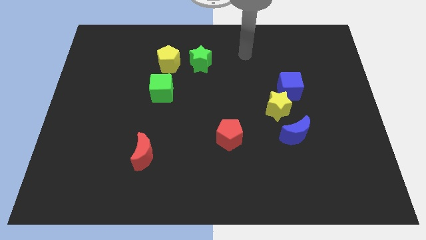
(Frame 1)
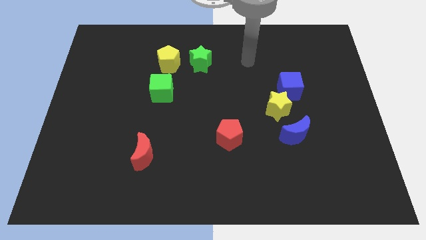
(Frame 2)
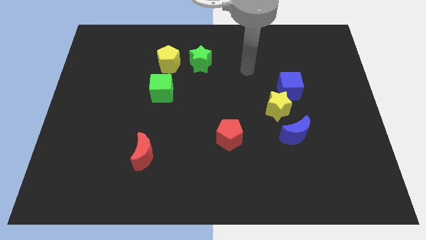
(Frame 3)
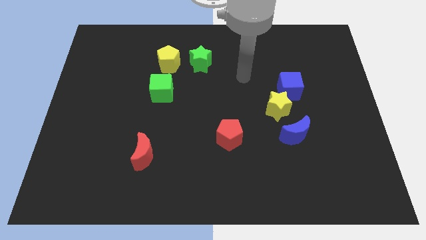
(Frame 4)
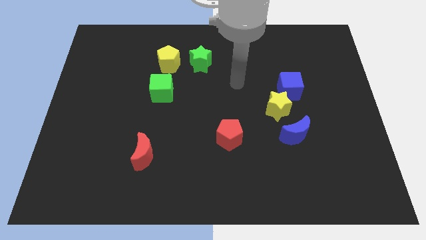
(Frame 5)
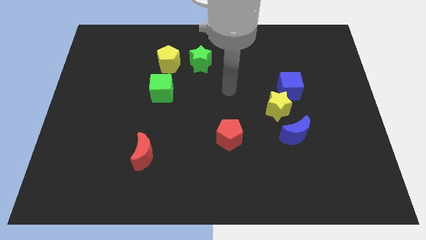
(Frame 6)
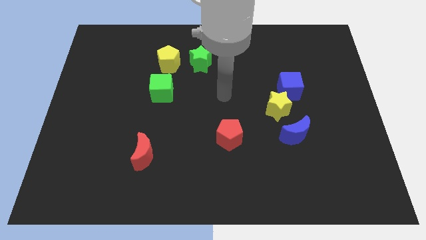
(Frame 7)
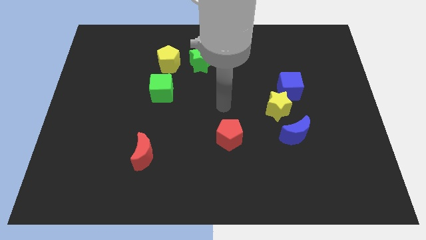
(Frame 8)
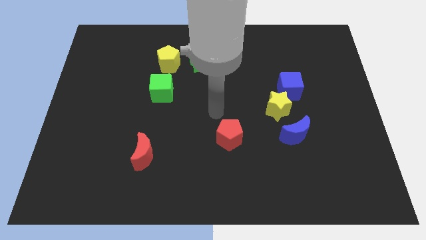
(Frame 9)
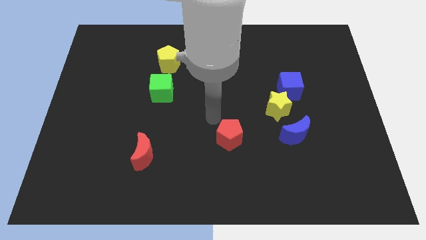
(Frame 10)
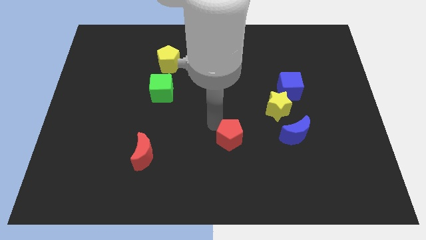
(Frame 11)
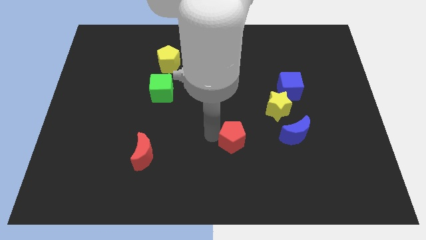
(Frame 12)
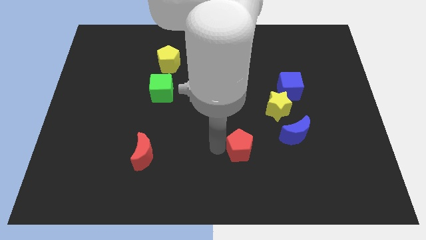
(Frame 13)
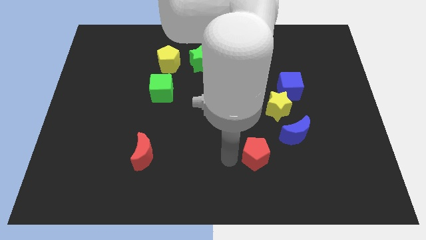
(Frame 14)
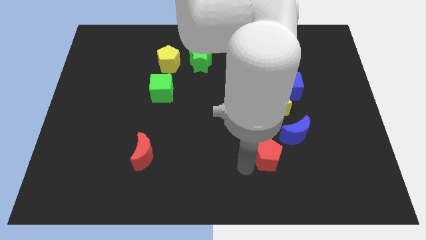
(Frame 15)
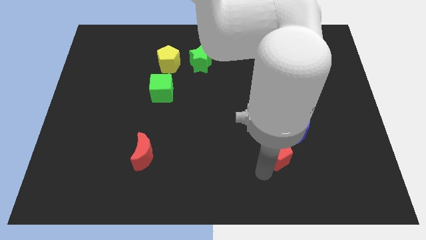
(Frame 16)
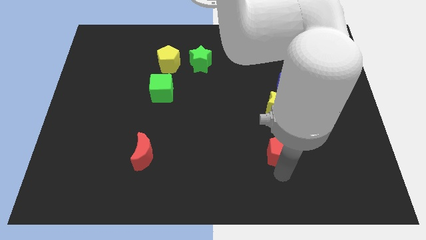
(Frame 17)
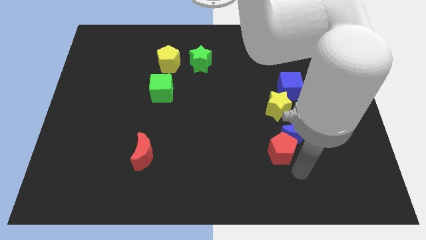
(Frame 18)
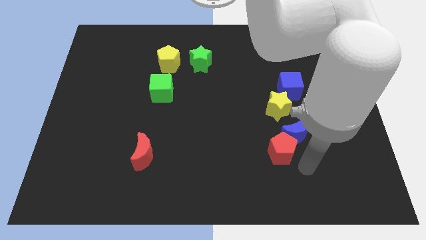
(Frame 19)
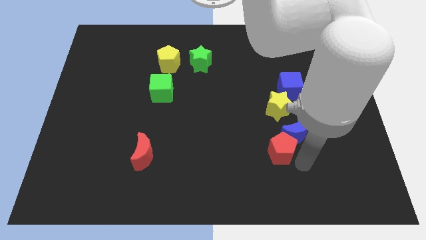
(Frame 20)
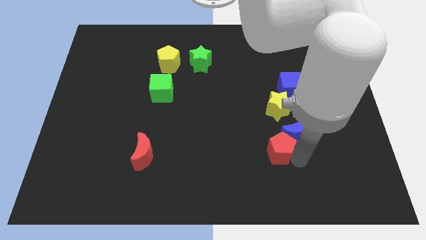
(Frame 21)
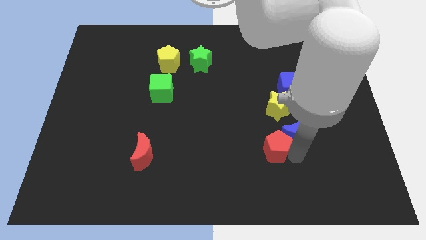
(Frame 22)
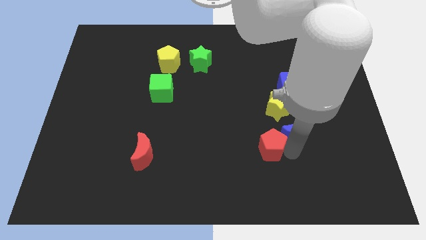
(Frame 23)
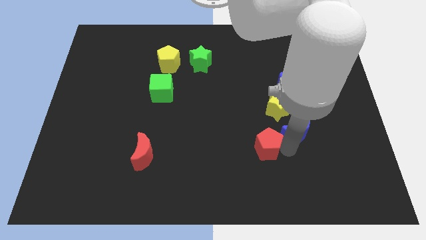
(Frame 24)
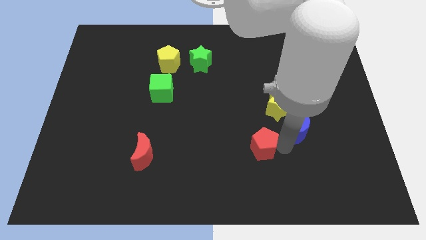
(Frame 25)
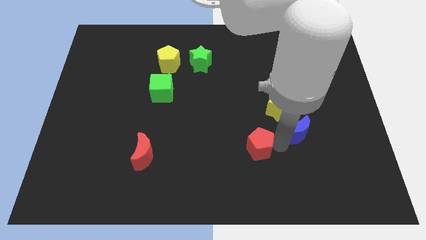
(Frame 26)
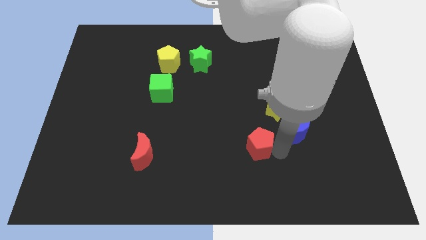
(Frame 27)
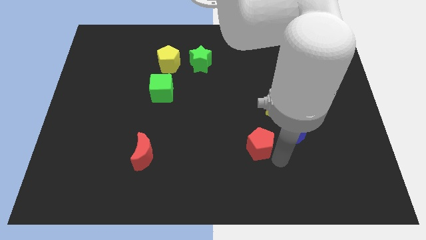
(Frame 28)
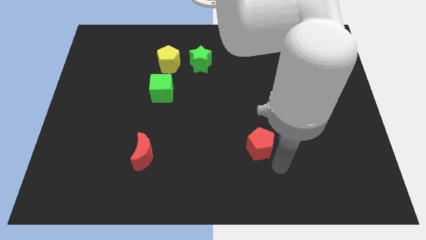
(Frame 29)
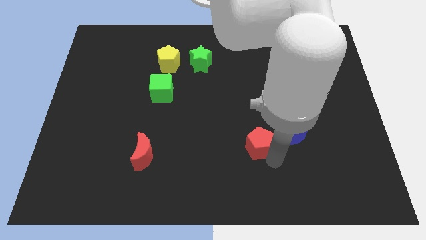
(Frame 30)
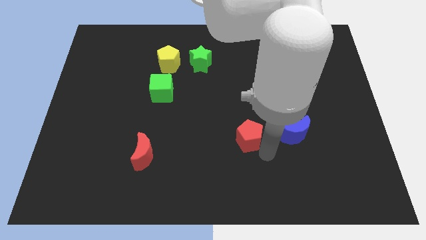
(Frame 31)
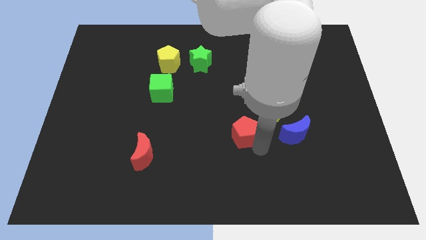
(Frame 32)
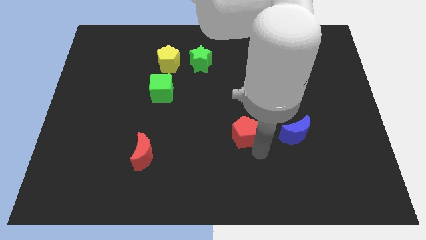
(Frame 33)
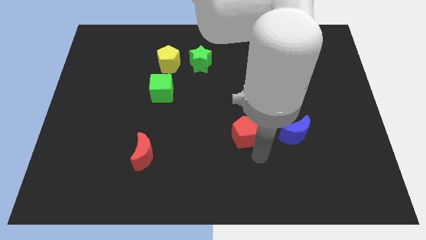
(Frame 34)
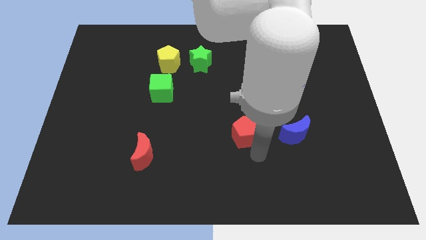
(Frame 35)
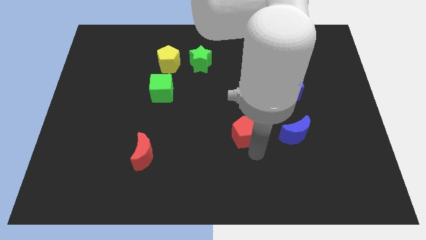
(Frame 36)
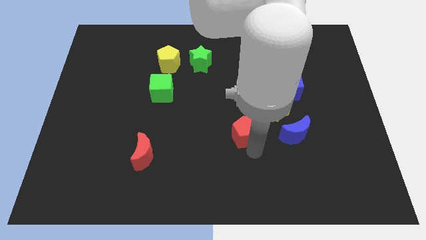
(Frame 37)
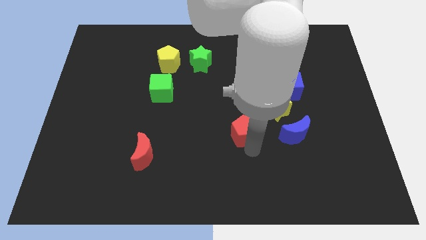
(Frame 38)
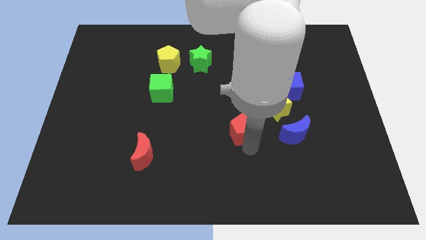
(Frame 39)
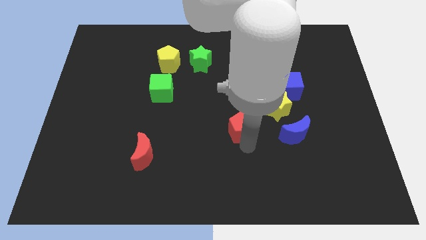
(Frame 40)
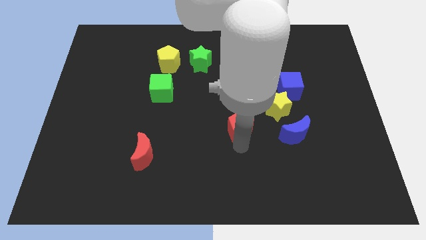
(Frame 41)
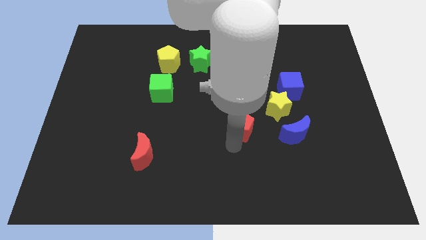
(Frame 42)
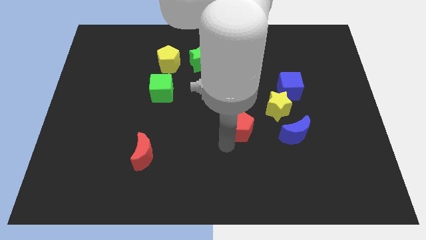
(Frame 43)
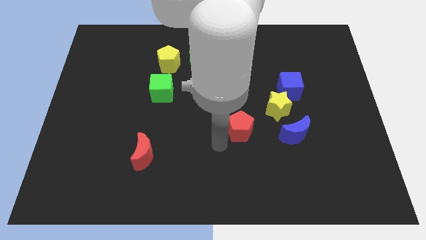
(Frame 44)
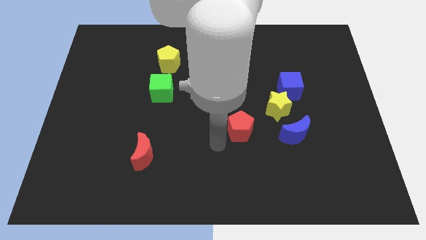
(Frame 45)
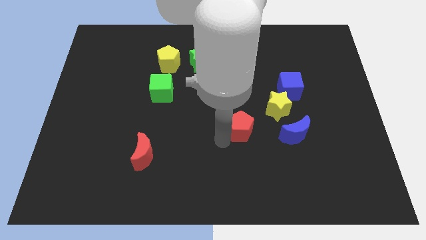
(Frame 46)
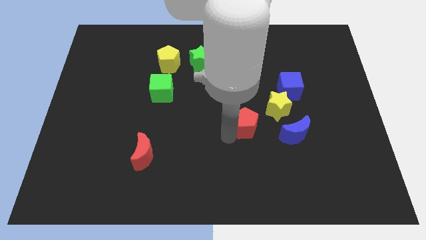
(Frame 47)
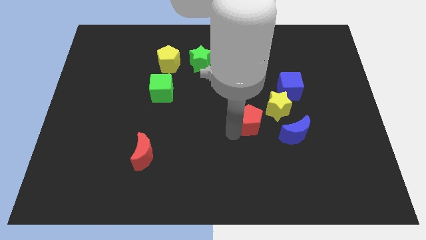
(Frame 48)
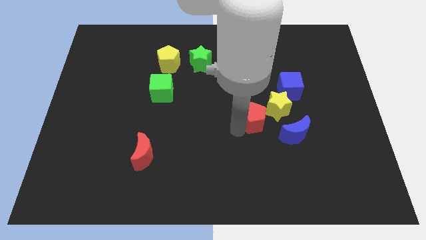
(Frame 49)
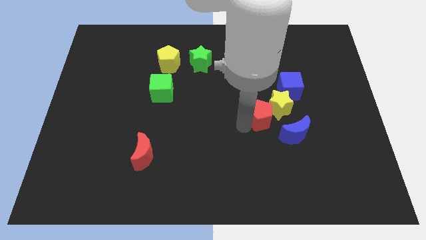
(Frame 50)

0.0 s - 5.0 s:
push the red pentagon diagonally down and to the left of the blue cube

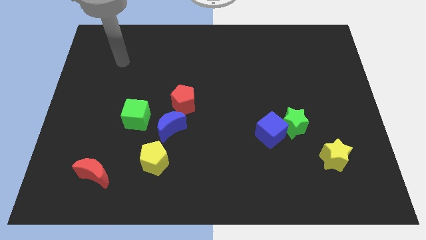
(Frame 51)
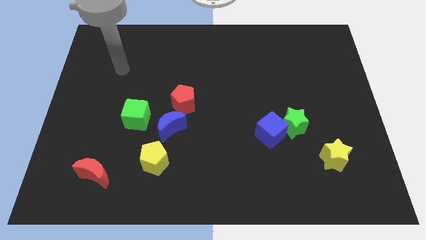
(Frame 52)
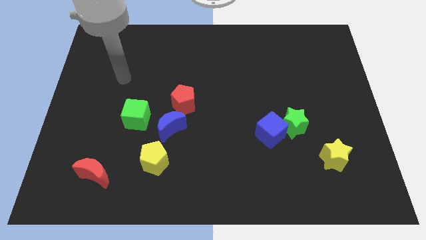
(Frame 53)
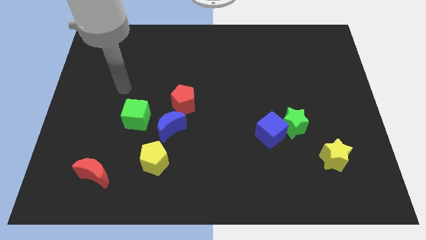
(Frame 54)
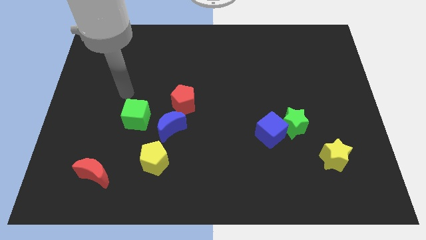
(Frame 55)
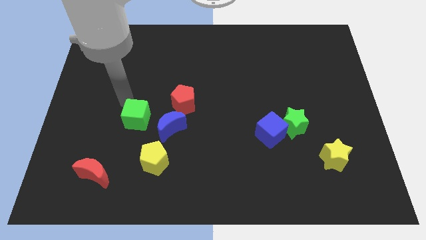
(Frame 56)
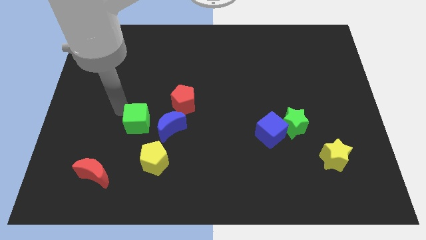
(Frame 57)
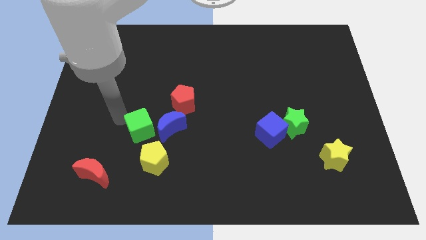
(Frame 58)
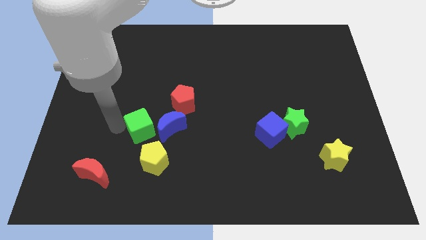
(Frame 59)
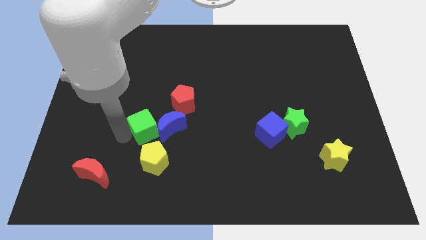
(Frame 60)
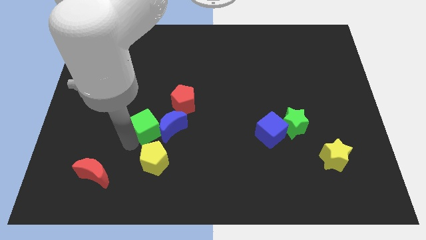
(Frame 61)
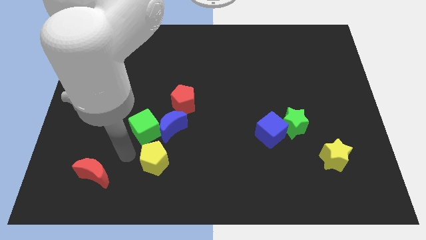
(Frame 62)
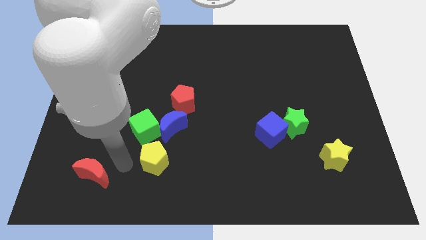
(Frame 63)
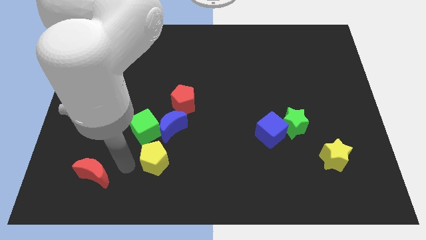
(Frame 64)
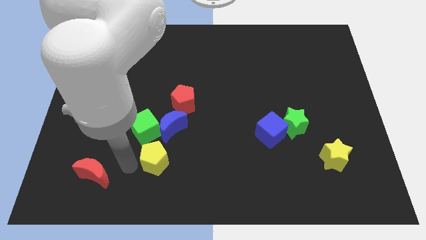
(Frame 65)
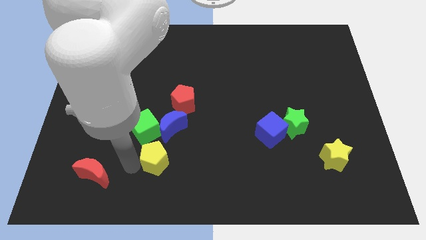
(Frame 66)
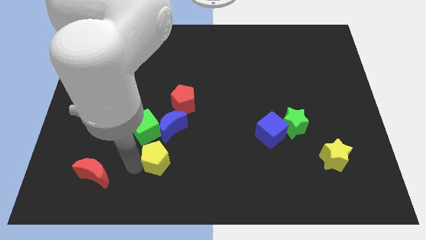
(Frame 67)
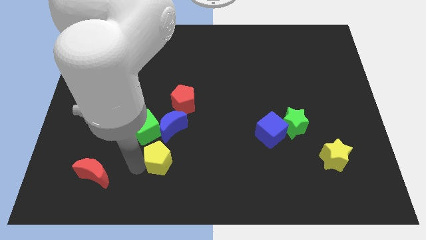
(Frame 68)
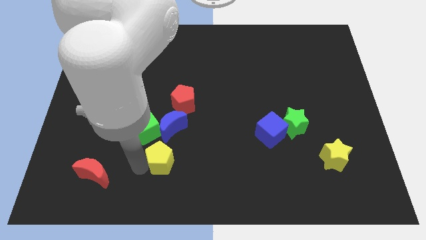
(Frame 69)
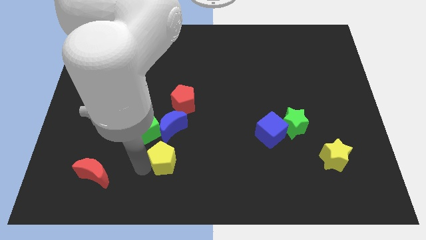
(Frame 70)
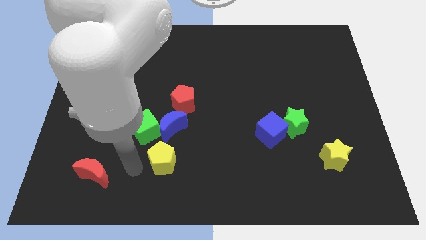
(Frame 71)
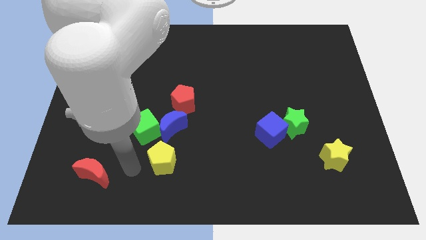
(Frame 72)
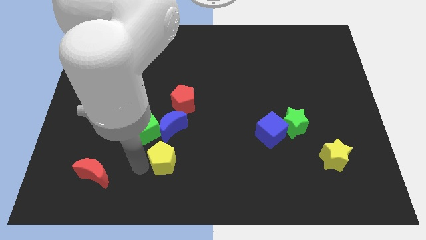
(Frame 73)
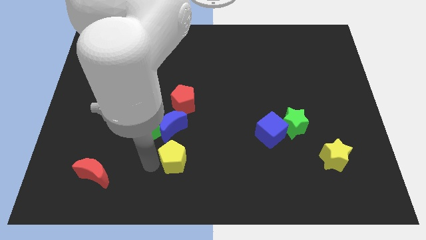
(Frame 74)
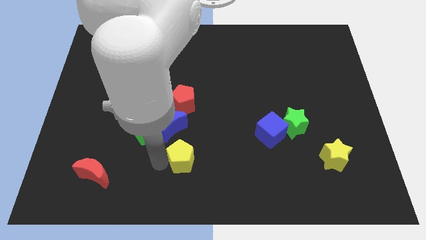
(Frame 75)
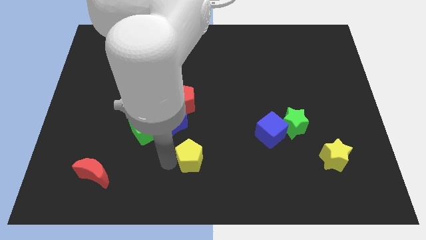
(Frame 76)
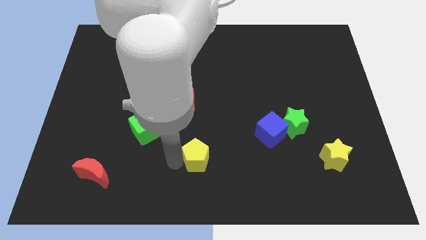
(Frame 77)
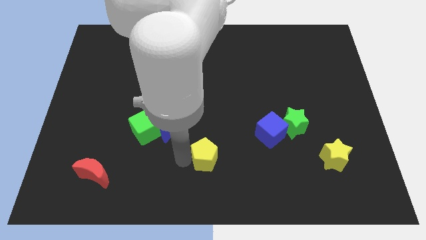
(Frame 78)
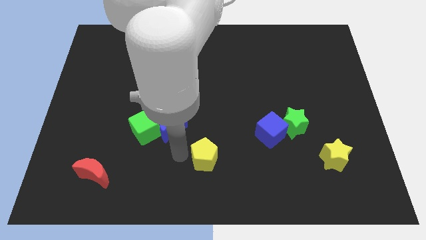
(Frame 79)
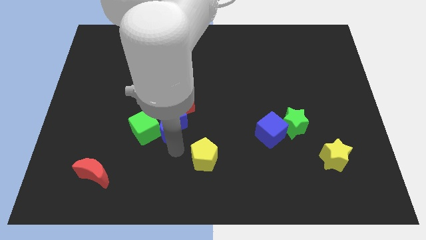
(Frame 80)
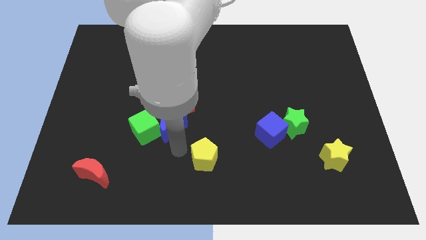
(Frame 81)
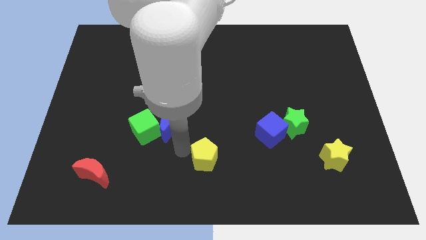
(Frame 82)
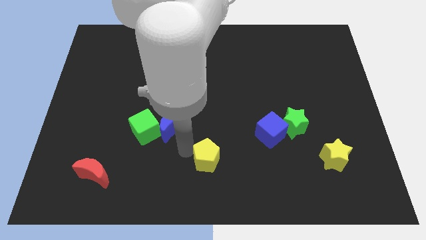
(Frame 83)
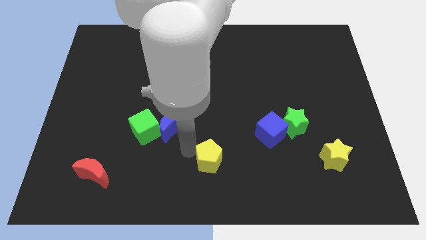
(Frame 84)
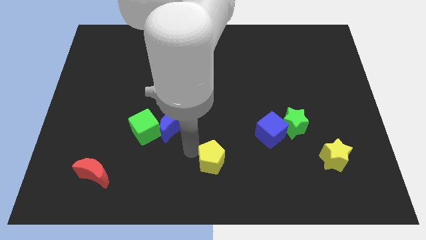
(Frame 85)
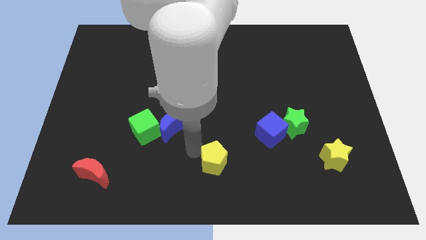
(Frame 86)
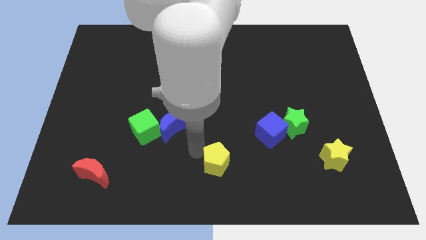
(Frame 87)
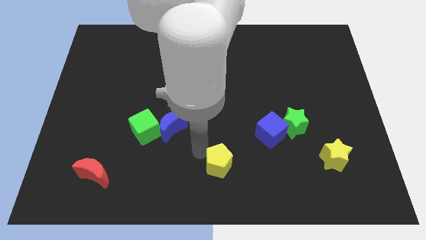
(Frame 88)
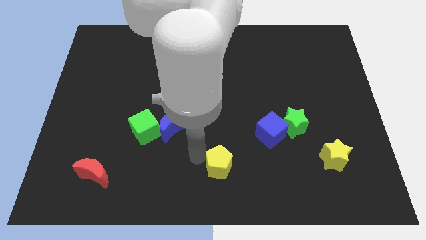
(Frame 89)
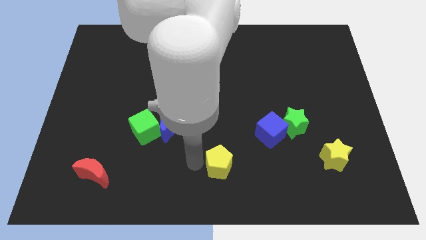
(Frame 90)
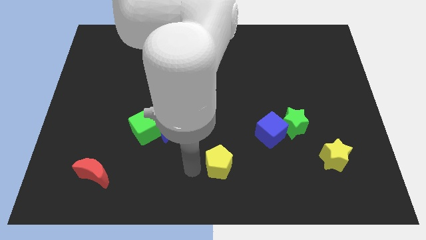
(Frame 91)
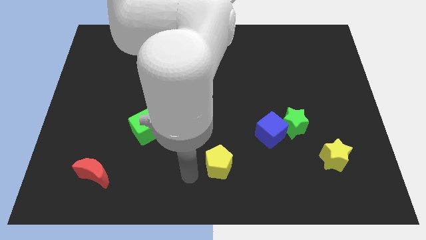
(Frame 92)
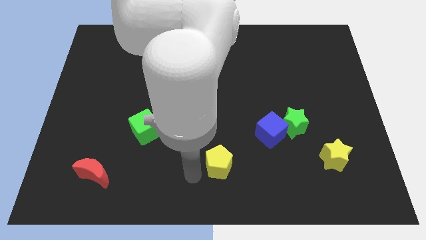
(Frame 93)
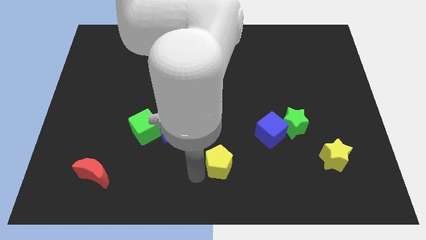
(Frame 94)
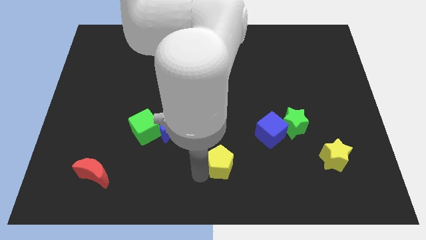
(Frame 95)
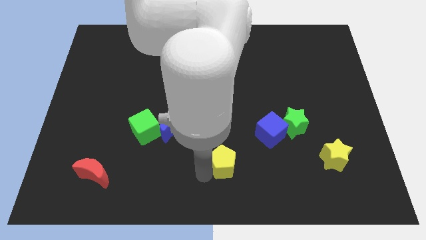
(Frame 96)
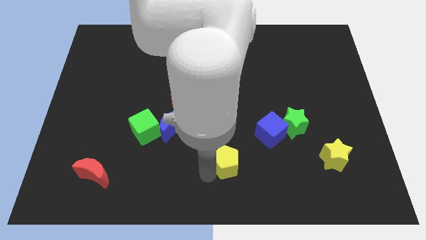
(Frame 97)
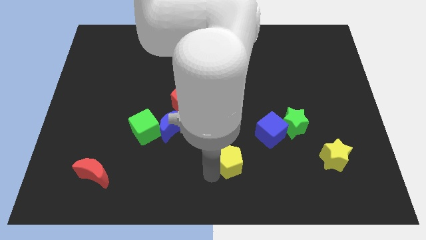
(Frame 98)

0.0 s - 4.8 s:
put the yellow pentagon diagonally down and to the left of the blue cube
